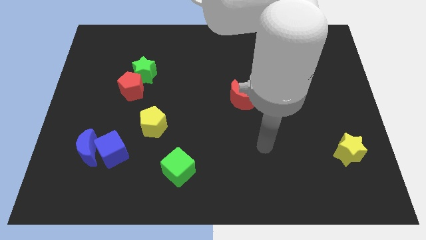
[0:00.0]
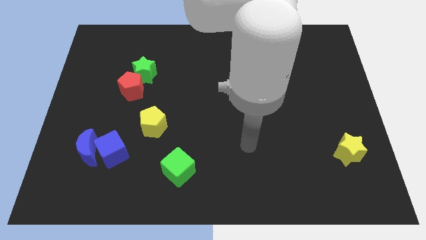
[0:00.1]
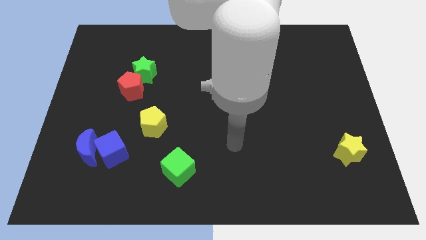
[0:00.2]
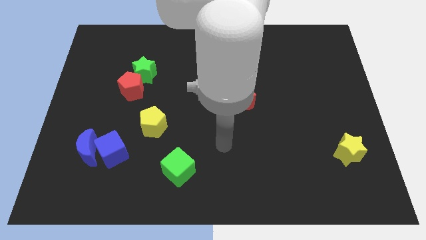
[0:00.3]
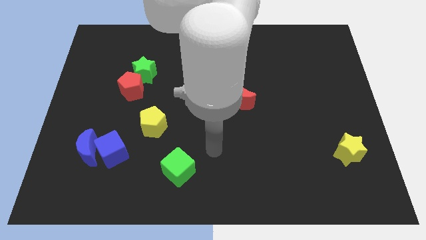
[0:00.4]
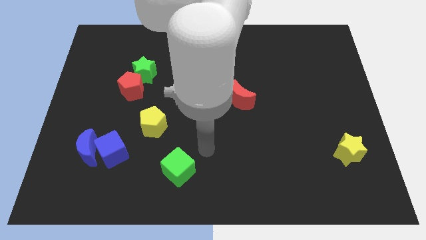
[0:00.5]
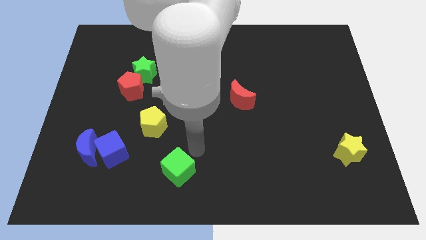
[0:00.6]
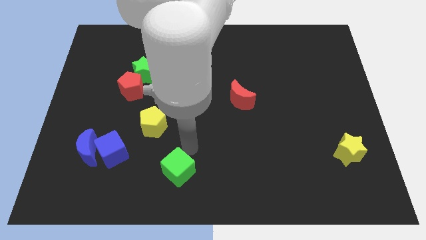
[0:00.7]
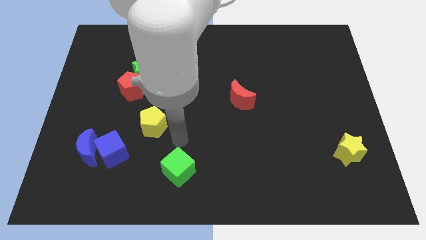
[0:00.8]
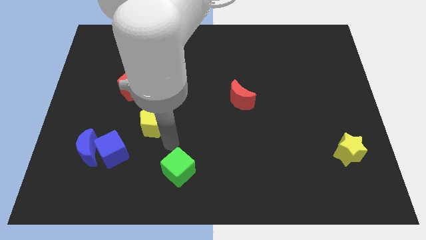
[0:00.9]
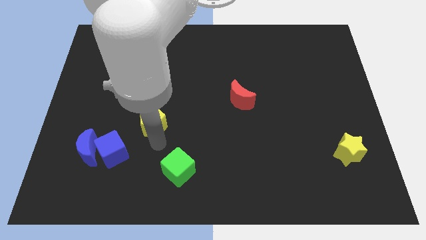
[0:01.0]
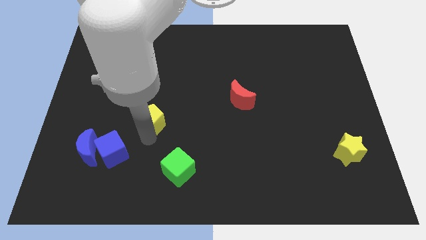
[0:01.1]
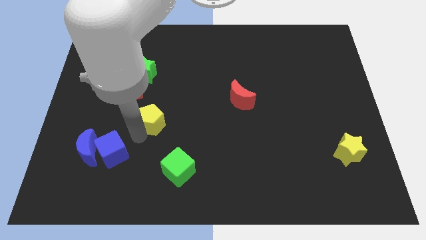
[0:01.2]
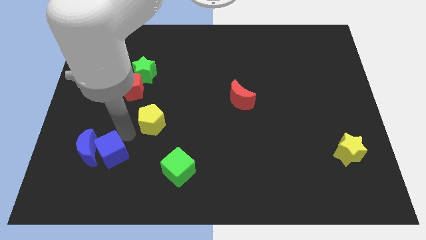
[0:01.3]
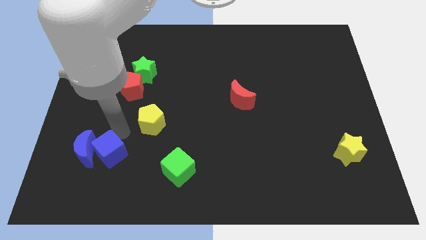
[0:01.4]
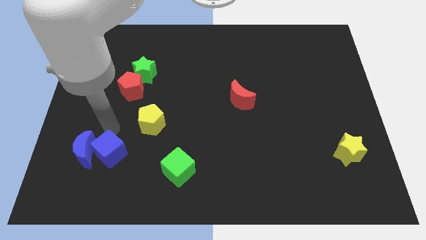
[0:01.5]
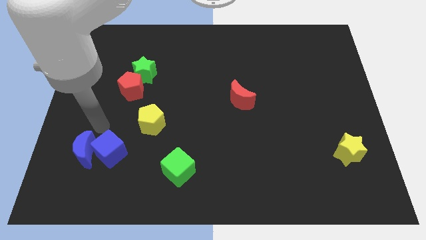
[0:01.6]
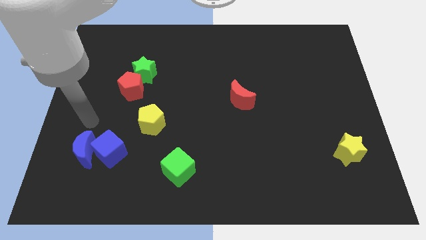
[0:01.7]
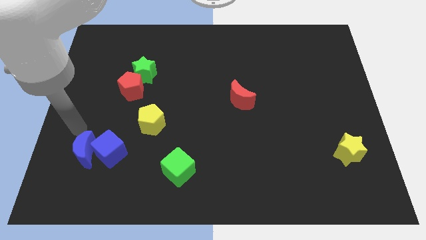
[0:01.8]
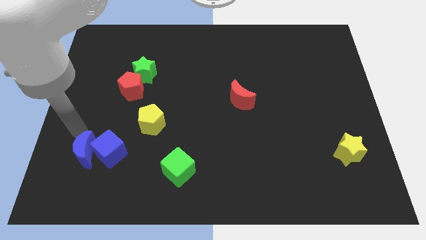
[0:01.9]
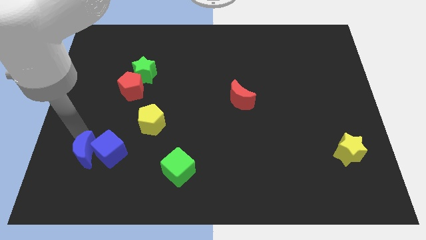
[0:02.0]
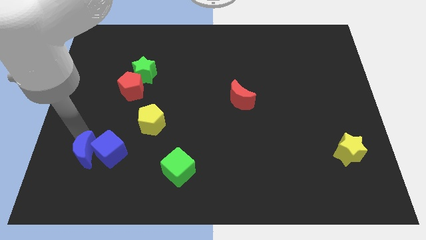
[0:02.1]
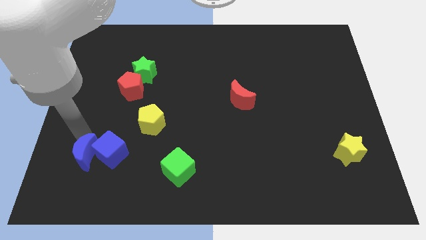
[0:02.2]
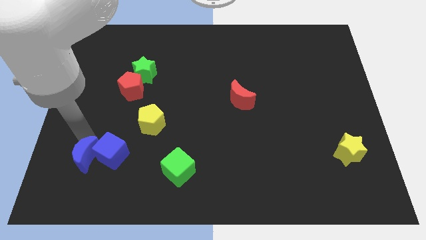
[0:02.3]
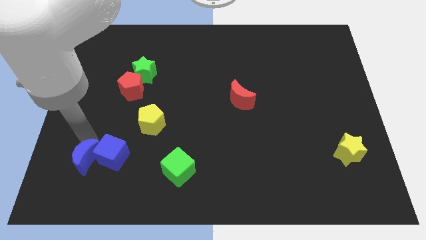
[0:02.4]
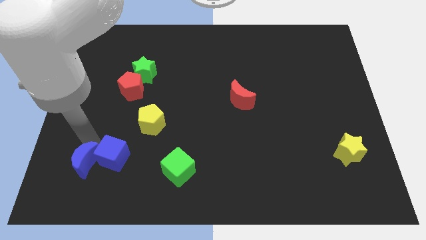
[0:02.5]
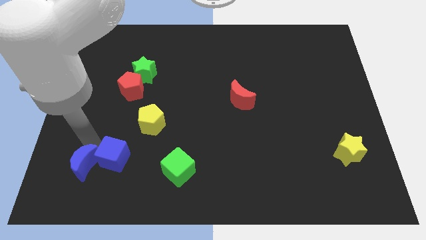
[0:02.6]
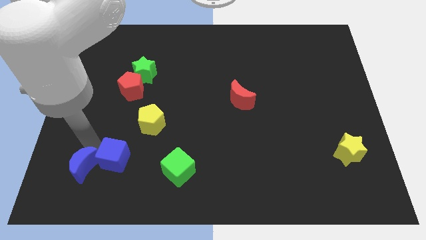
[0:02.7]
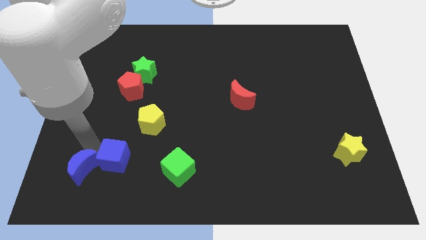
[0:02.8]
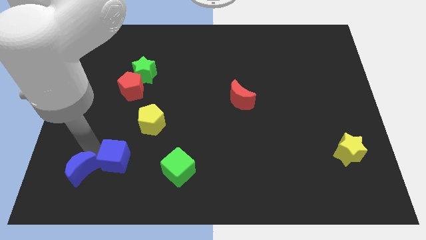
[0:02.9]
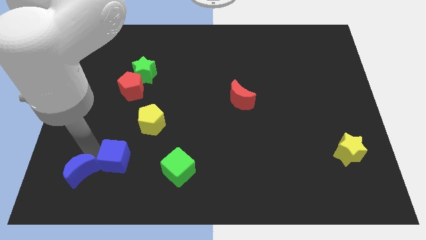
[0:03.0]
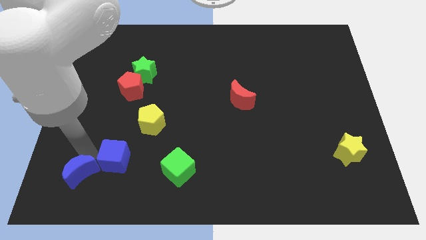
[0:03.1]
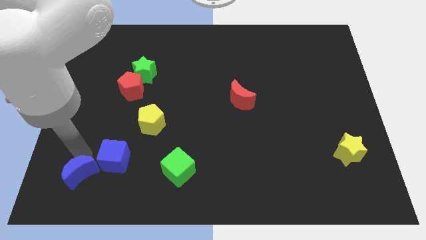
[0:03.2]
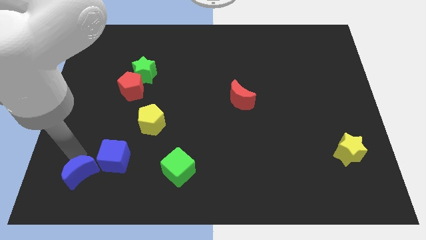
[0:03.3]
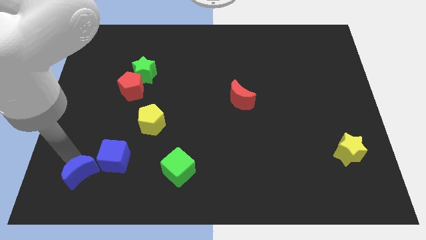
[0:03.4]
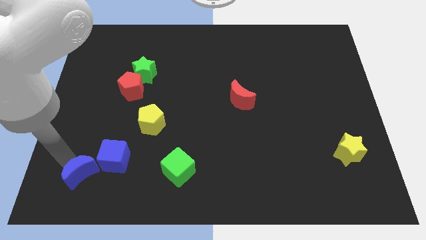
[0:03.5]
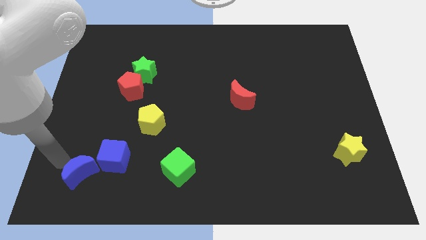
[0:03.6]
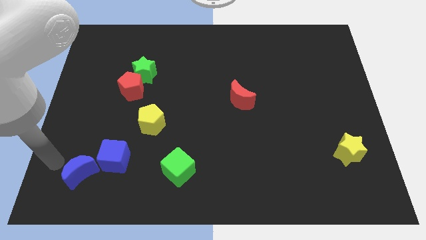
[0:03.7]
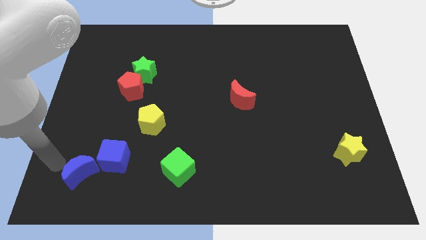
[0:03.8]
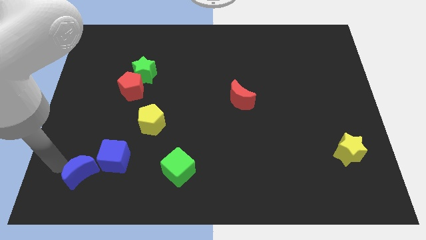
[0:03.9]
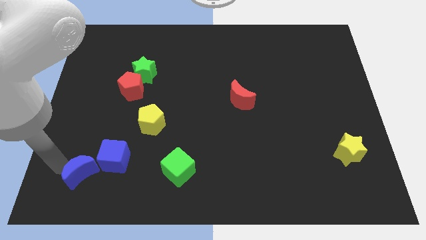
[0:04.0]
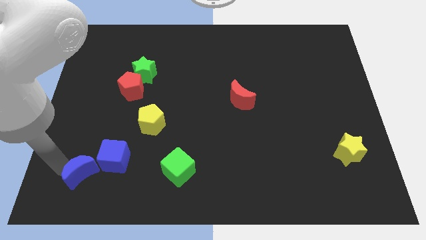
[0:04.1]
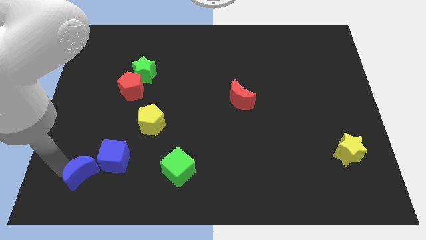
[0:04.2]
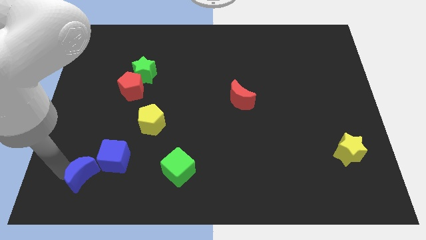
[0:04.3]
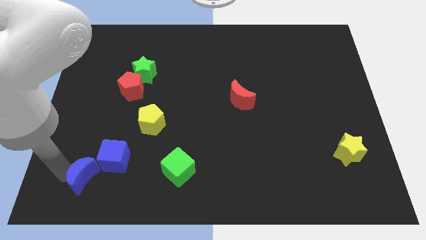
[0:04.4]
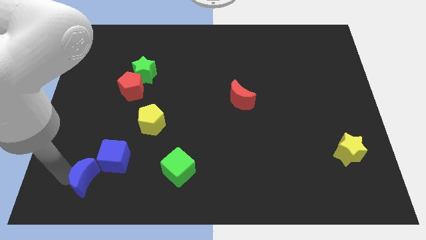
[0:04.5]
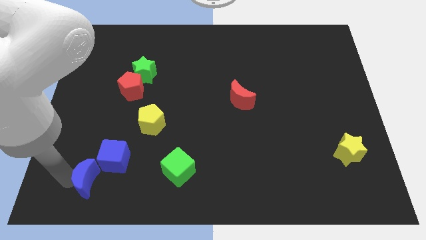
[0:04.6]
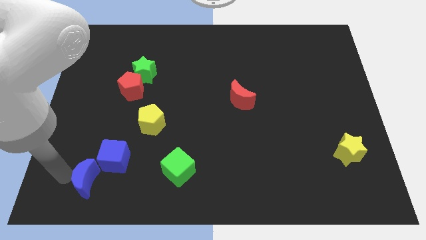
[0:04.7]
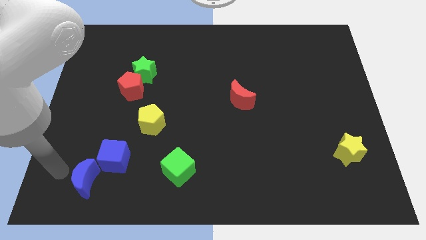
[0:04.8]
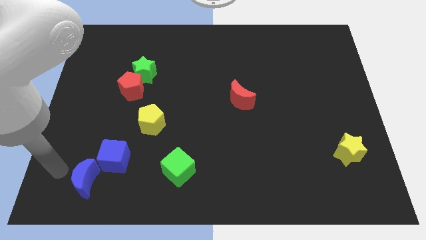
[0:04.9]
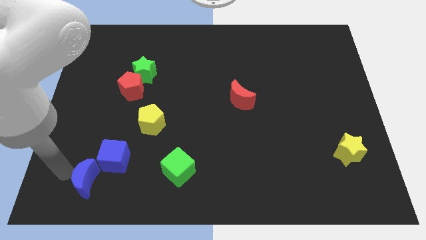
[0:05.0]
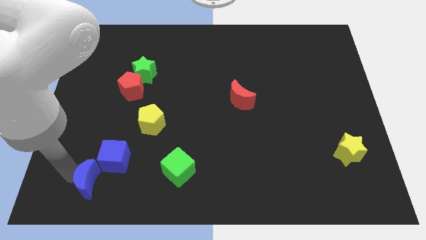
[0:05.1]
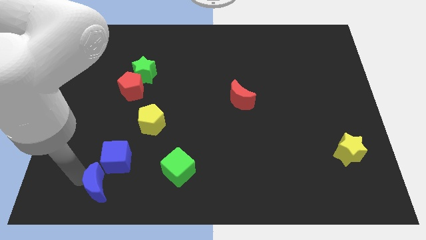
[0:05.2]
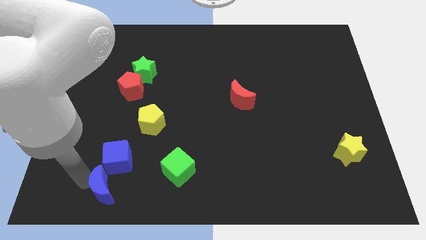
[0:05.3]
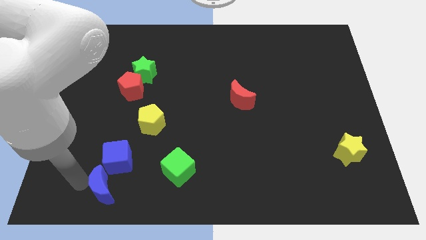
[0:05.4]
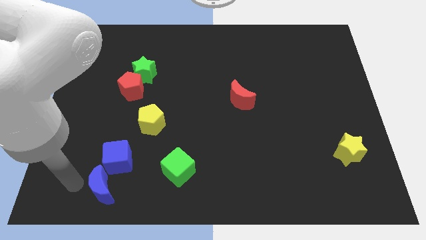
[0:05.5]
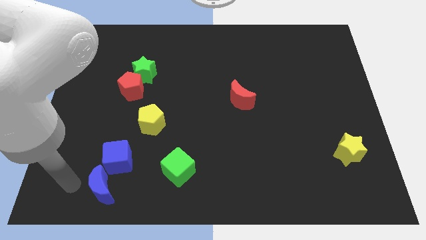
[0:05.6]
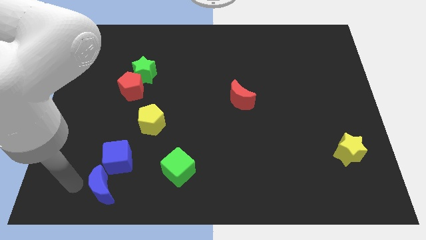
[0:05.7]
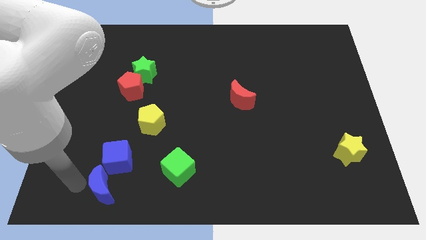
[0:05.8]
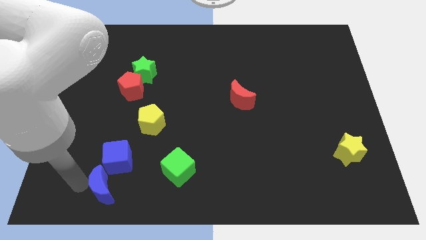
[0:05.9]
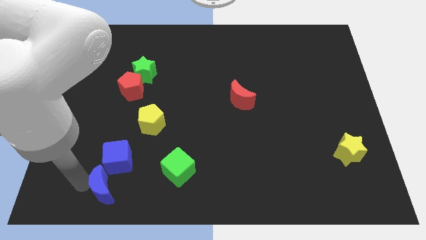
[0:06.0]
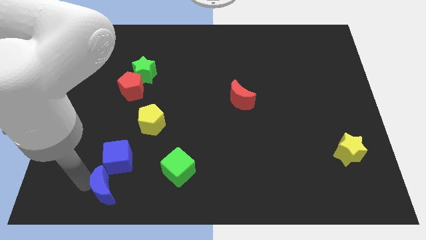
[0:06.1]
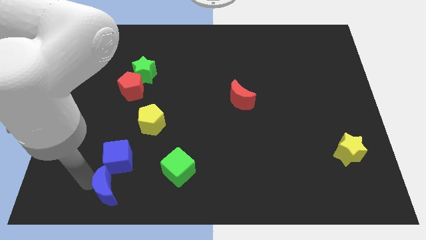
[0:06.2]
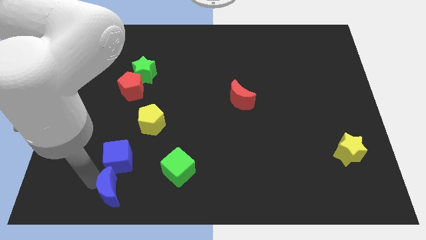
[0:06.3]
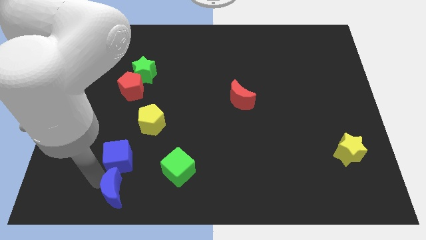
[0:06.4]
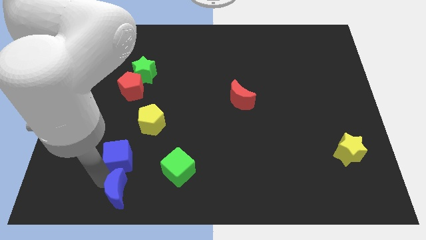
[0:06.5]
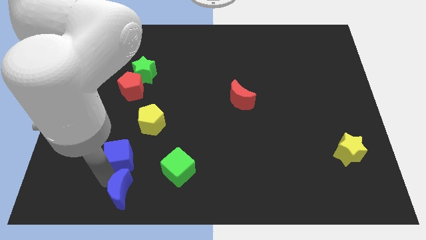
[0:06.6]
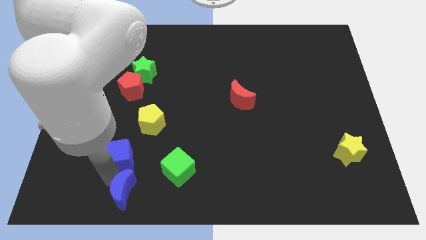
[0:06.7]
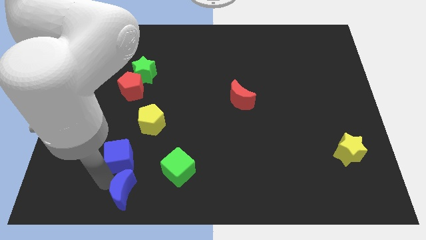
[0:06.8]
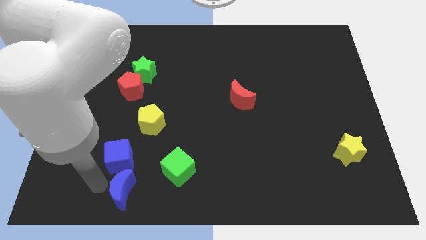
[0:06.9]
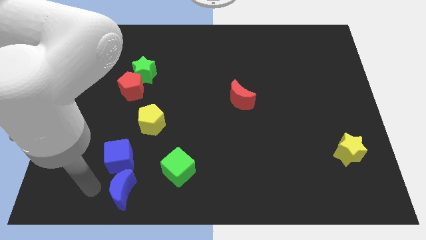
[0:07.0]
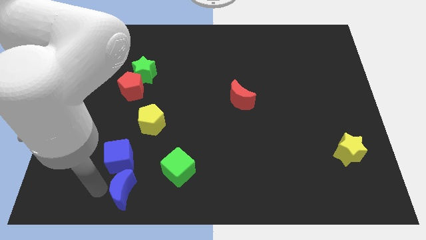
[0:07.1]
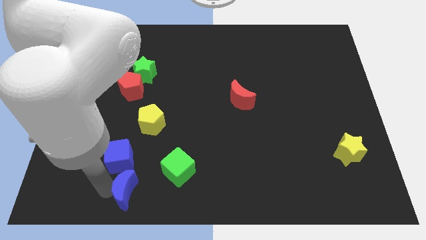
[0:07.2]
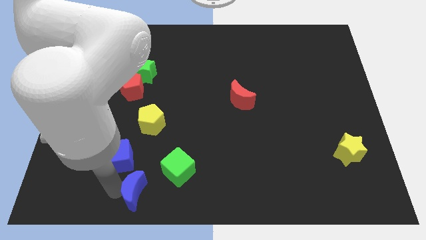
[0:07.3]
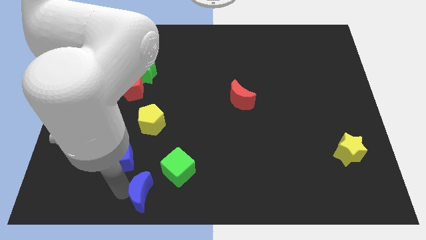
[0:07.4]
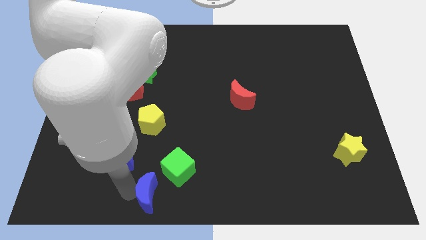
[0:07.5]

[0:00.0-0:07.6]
slide the blue moon to the bottom
